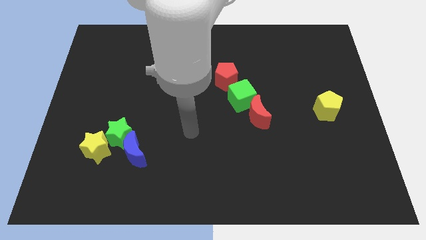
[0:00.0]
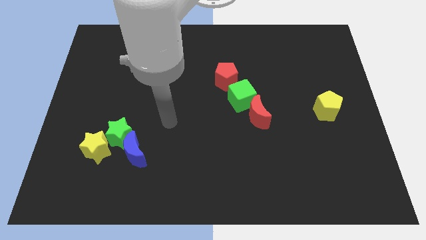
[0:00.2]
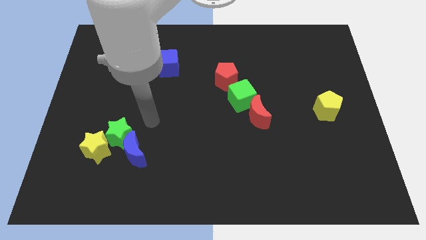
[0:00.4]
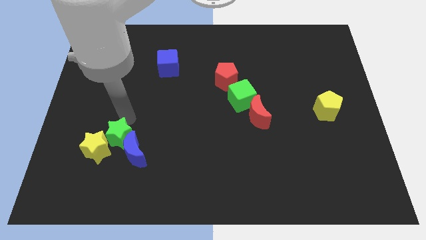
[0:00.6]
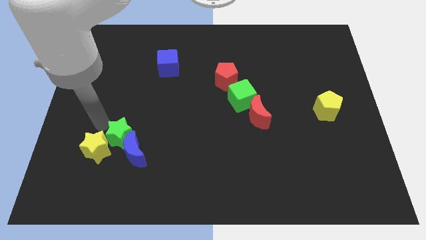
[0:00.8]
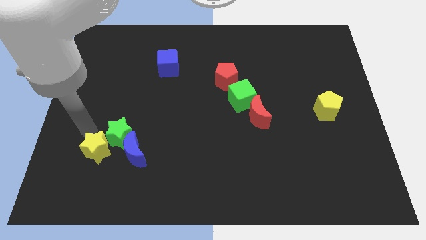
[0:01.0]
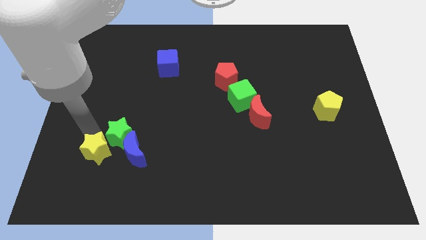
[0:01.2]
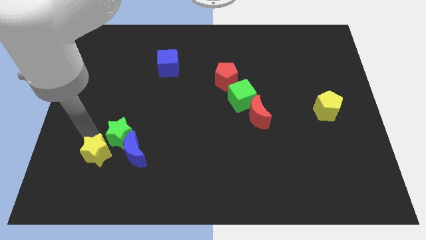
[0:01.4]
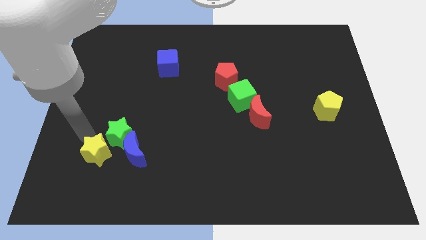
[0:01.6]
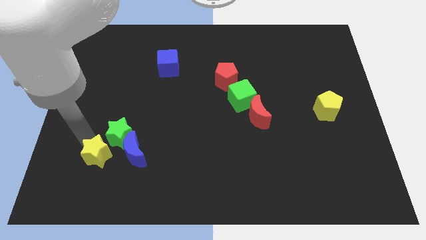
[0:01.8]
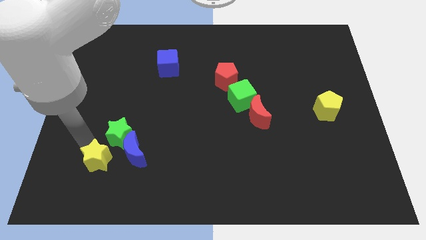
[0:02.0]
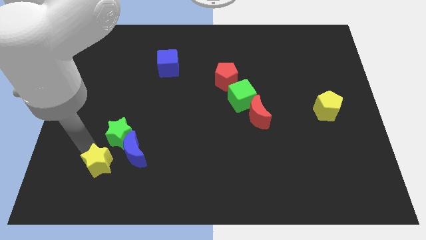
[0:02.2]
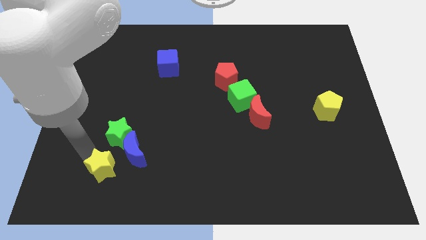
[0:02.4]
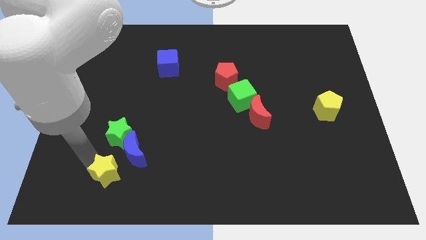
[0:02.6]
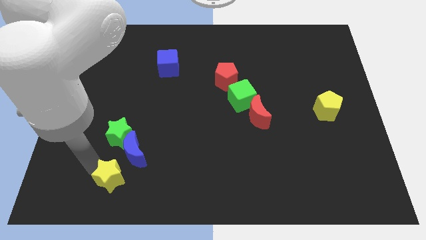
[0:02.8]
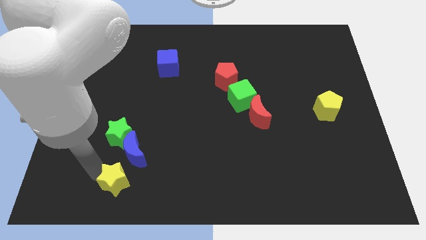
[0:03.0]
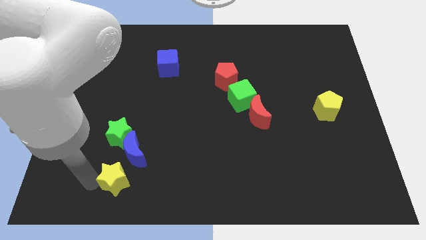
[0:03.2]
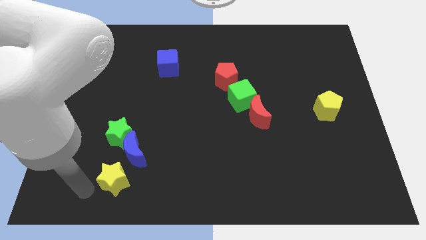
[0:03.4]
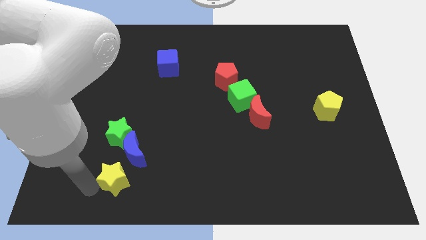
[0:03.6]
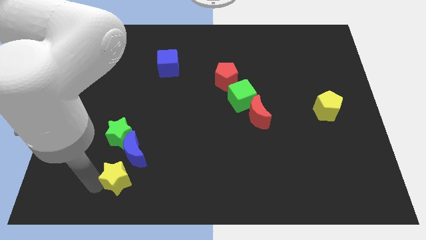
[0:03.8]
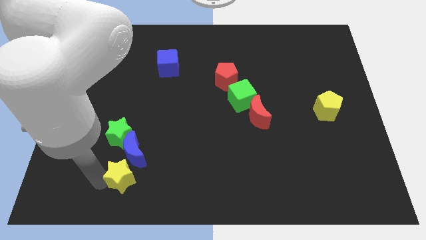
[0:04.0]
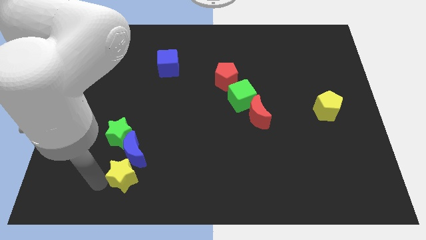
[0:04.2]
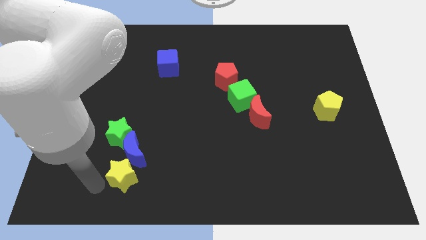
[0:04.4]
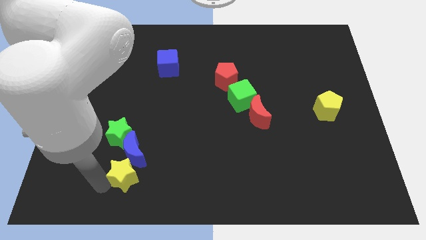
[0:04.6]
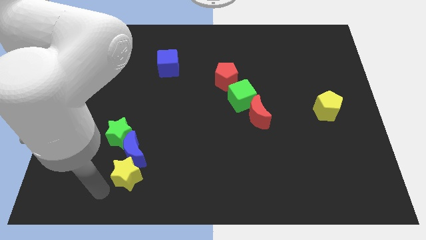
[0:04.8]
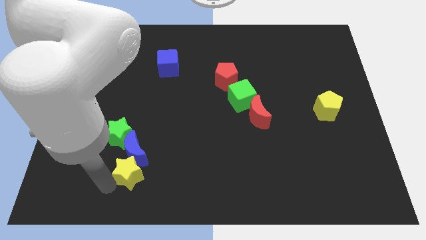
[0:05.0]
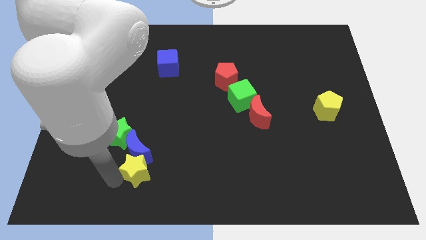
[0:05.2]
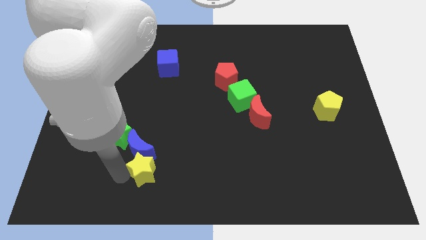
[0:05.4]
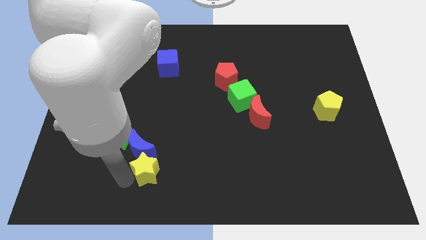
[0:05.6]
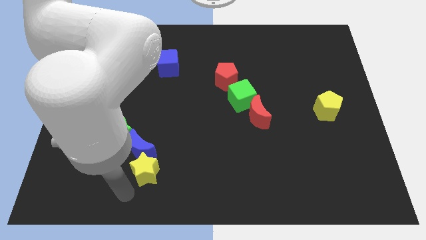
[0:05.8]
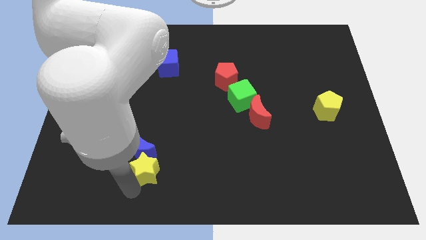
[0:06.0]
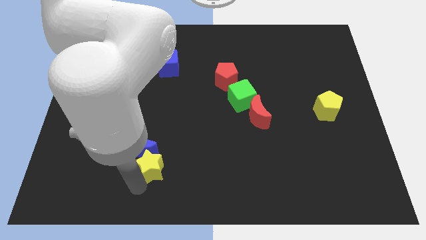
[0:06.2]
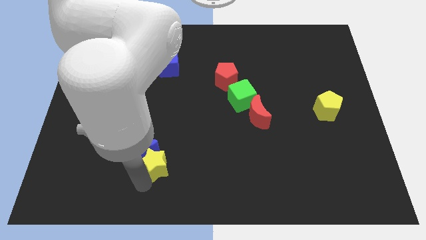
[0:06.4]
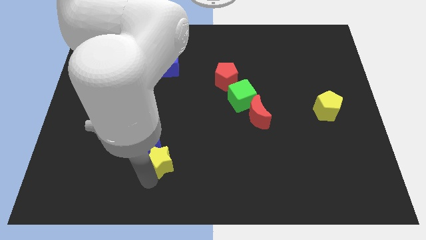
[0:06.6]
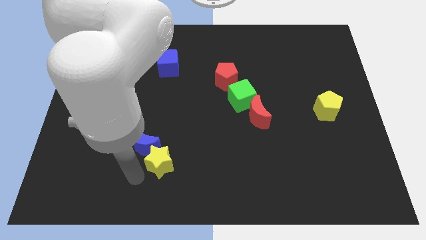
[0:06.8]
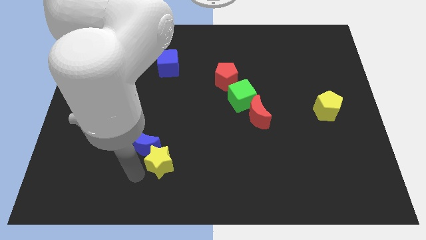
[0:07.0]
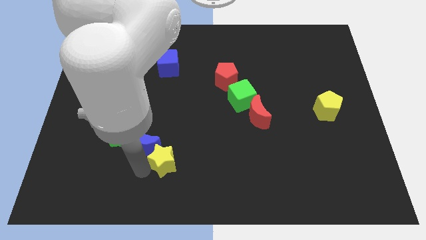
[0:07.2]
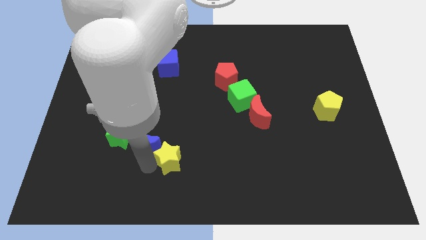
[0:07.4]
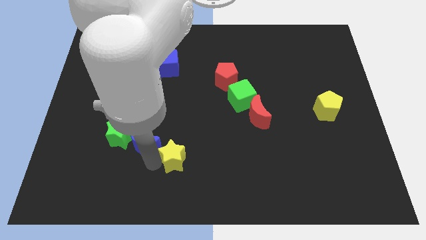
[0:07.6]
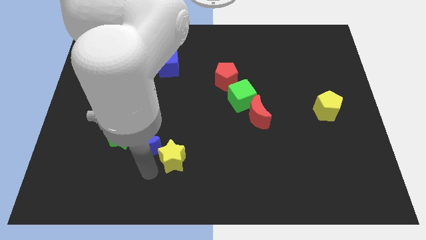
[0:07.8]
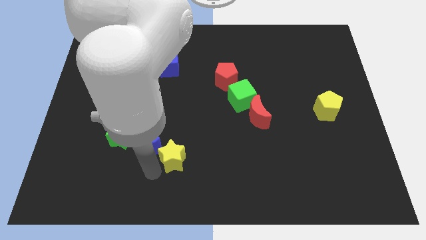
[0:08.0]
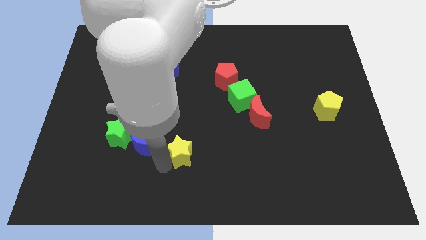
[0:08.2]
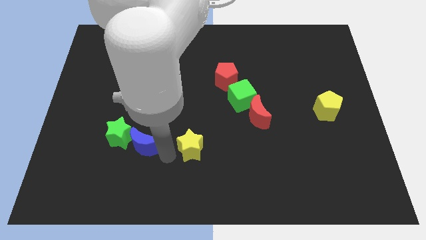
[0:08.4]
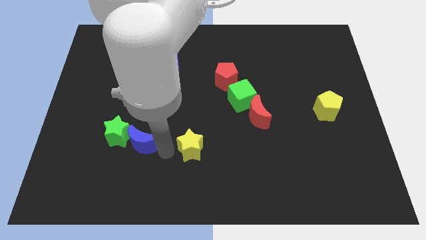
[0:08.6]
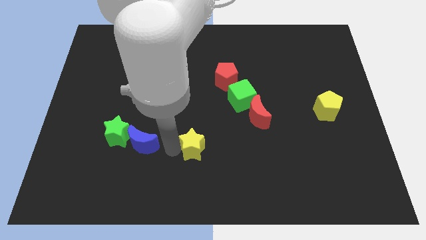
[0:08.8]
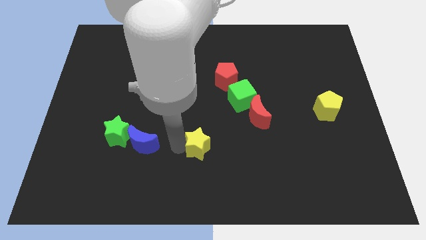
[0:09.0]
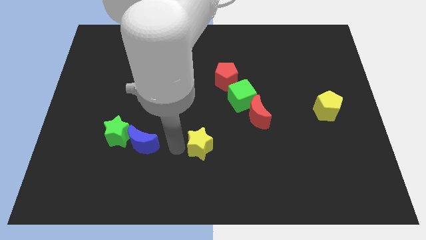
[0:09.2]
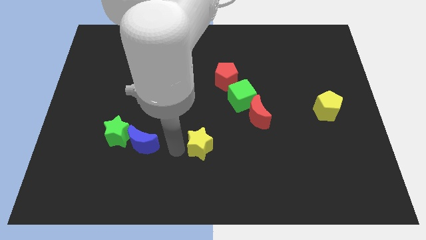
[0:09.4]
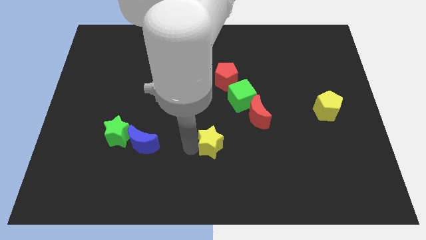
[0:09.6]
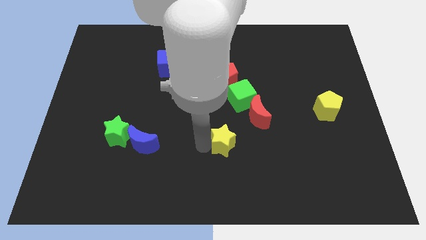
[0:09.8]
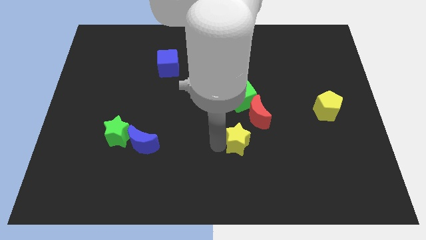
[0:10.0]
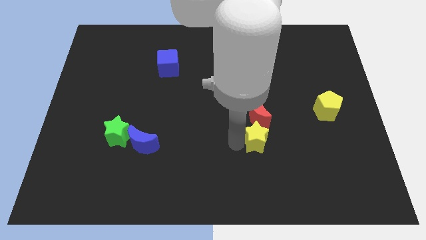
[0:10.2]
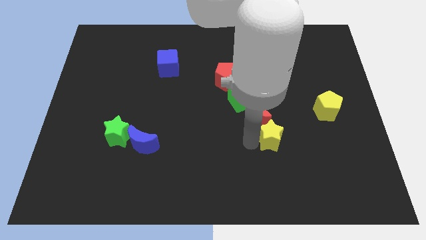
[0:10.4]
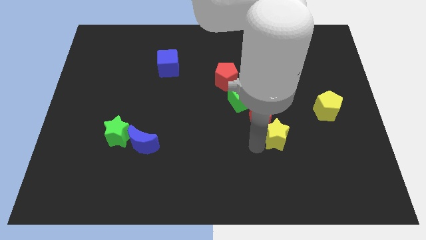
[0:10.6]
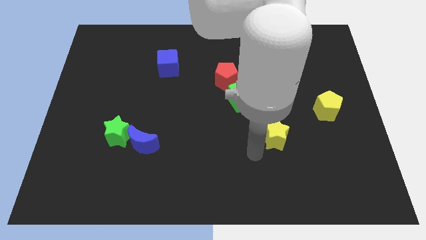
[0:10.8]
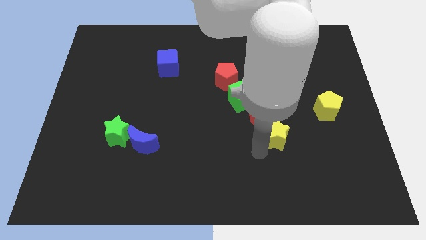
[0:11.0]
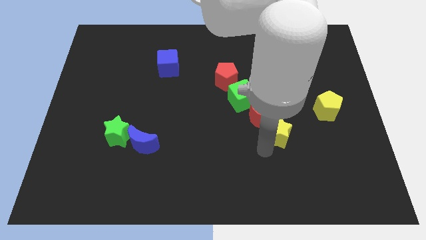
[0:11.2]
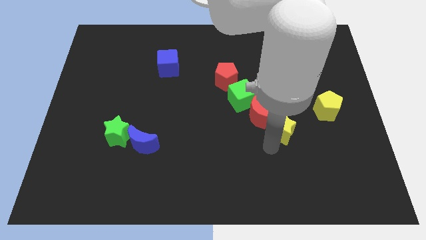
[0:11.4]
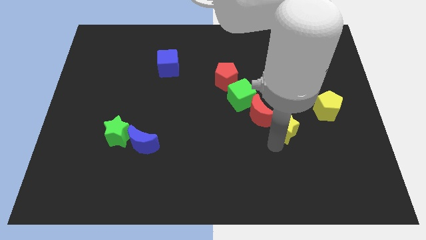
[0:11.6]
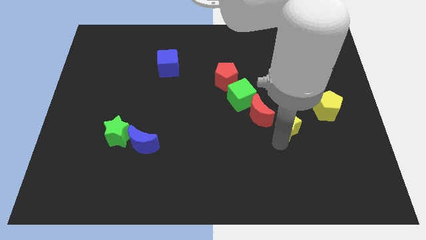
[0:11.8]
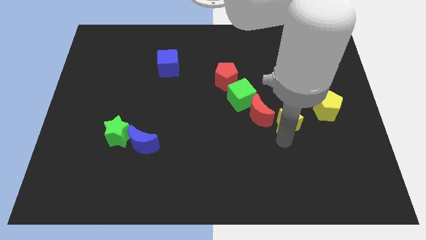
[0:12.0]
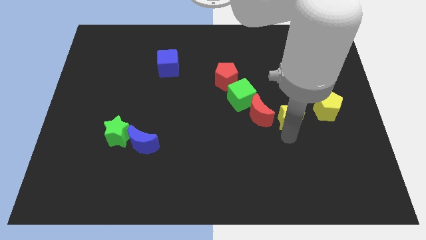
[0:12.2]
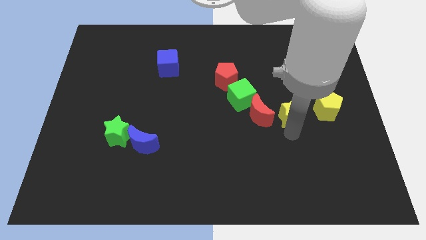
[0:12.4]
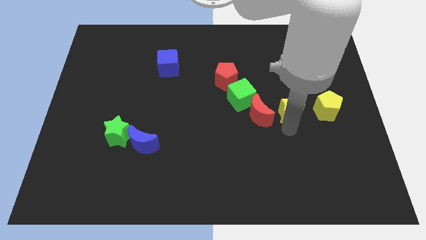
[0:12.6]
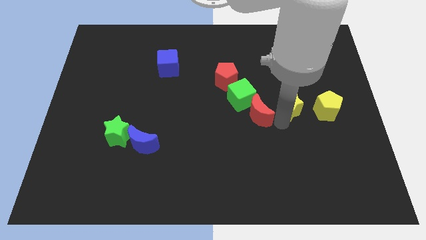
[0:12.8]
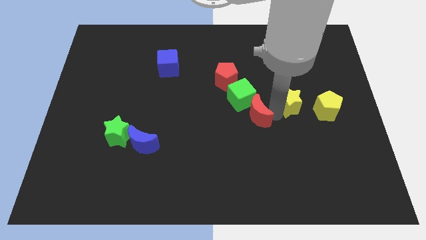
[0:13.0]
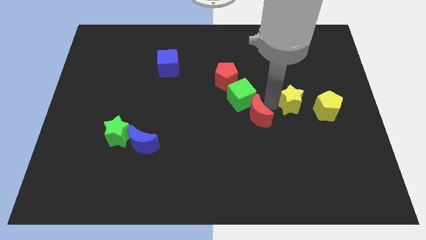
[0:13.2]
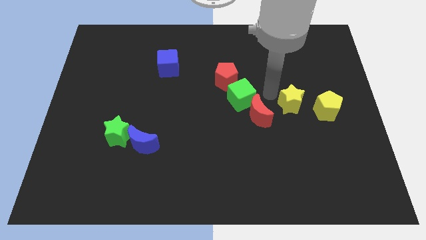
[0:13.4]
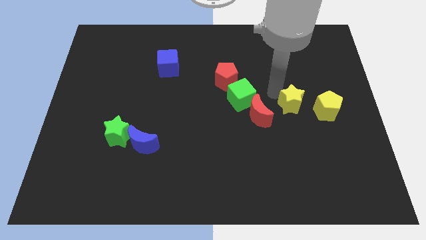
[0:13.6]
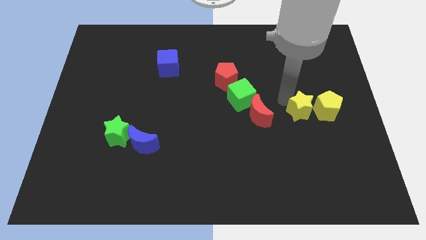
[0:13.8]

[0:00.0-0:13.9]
put the yellow star next to the yellow pentagon

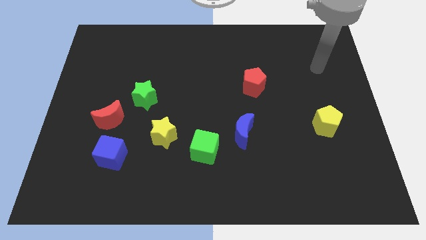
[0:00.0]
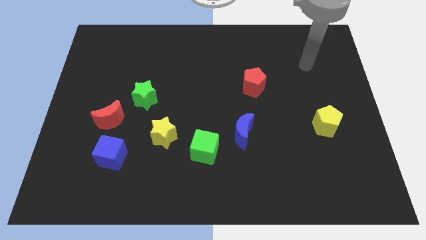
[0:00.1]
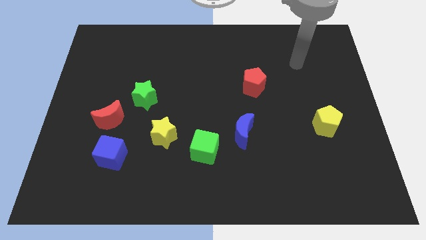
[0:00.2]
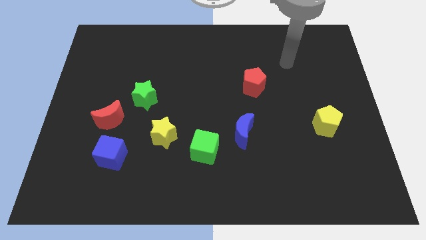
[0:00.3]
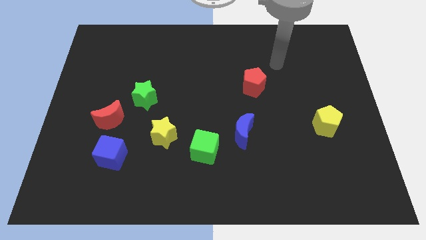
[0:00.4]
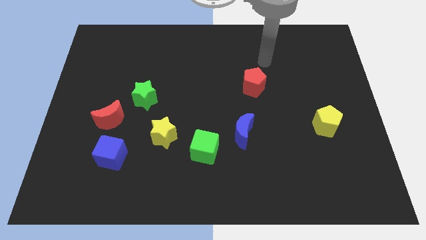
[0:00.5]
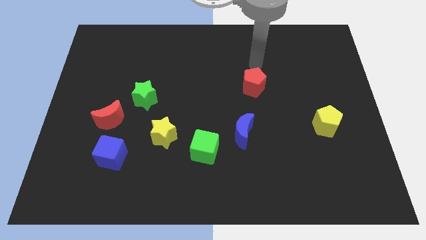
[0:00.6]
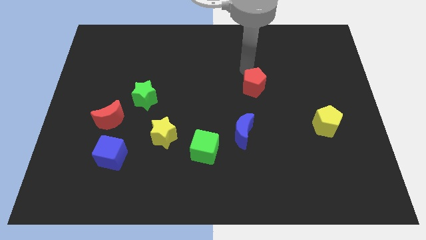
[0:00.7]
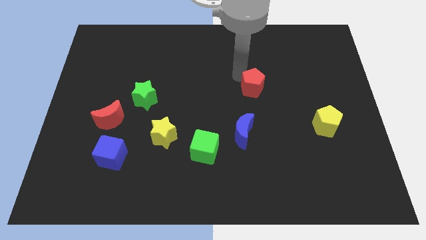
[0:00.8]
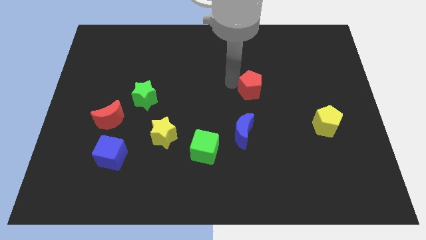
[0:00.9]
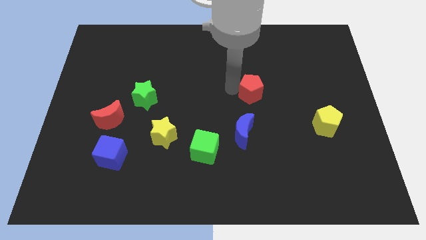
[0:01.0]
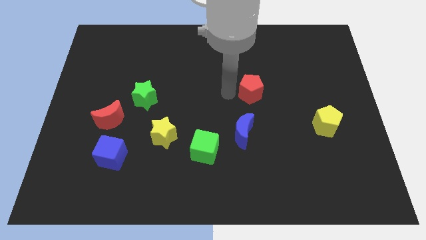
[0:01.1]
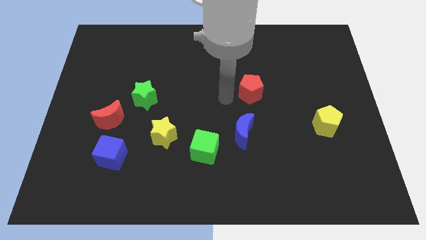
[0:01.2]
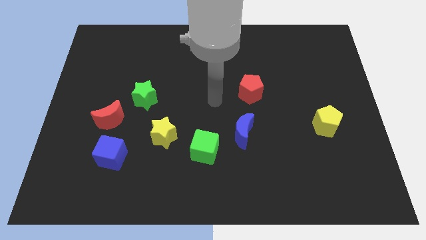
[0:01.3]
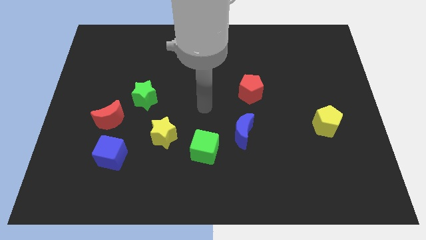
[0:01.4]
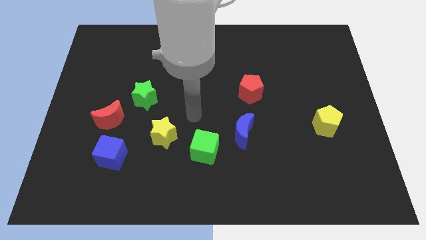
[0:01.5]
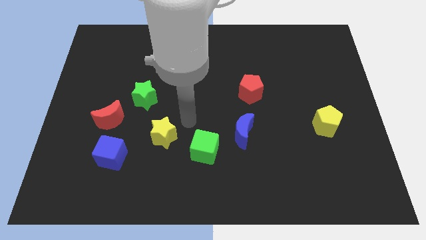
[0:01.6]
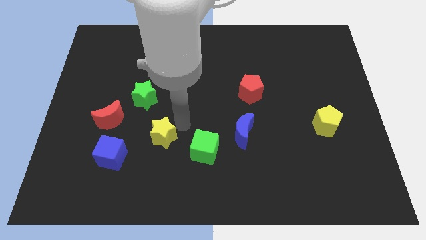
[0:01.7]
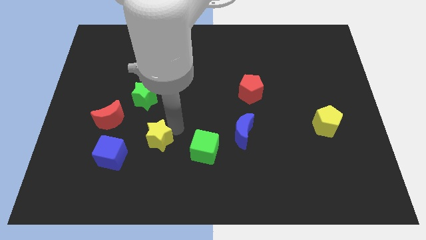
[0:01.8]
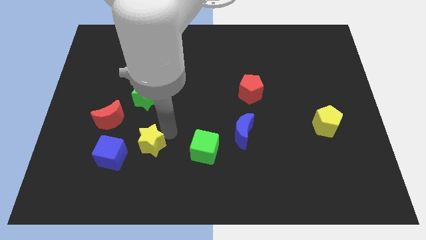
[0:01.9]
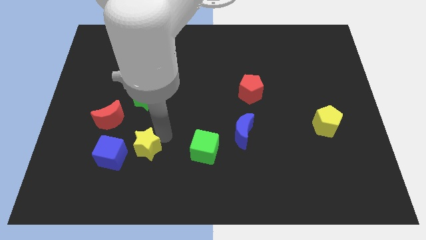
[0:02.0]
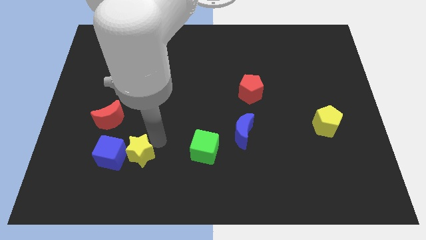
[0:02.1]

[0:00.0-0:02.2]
slide the yellow star next to the blue cube
